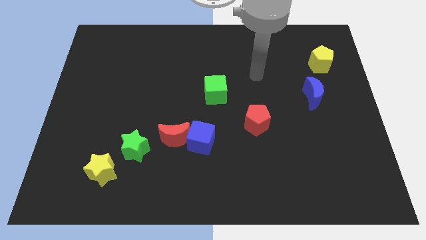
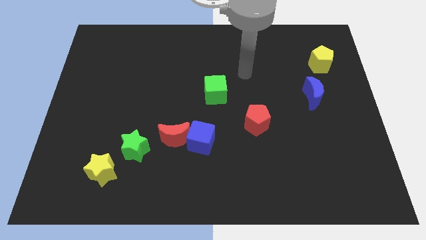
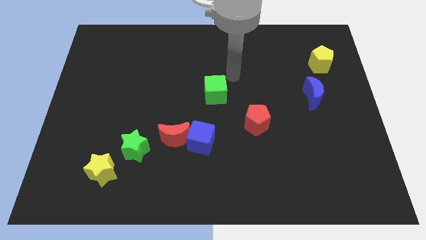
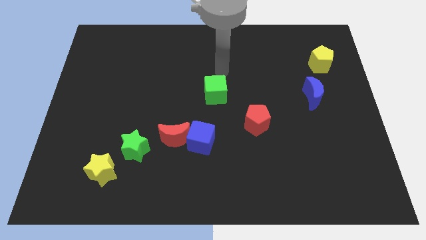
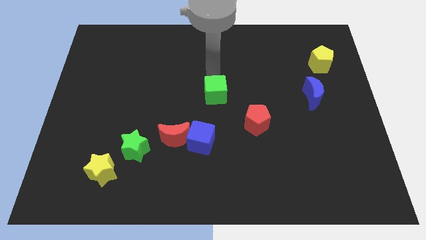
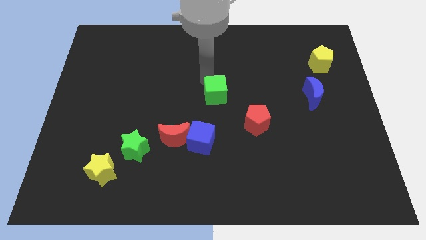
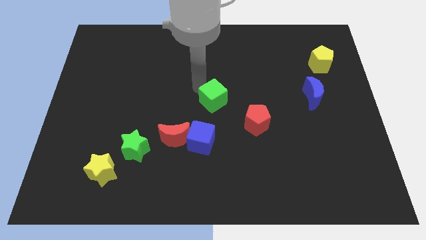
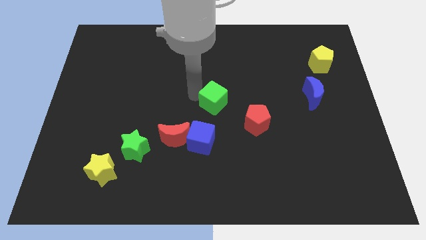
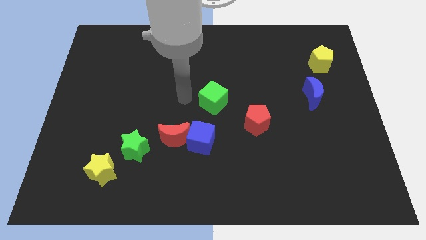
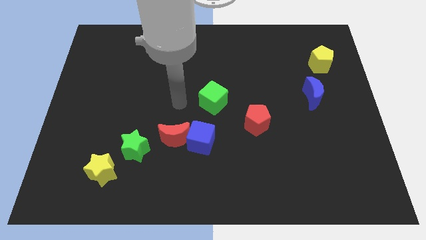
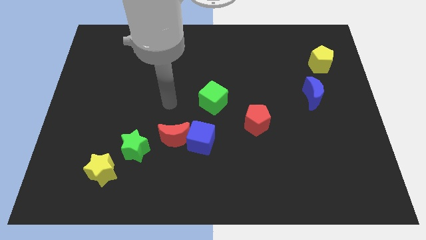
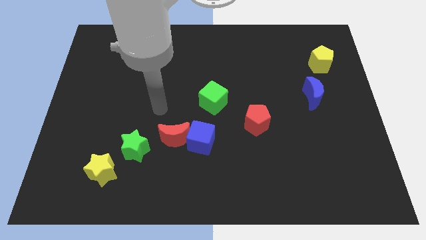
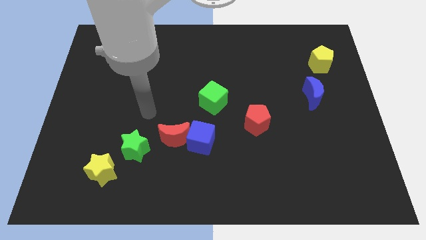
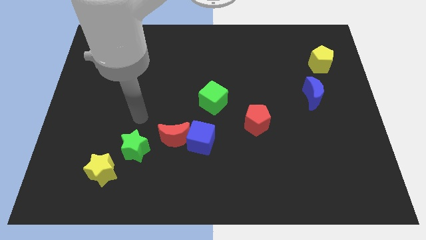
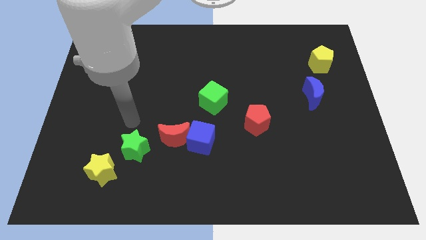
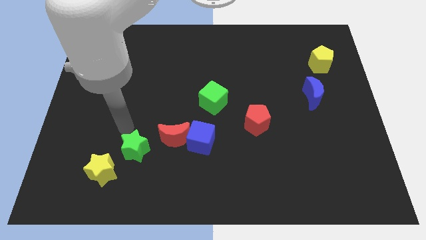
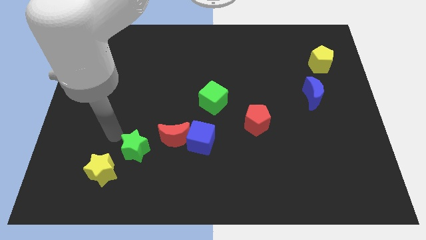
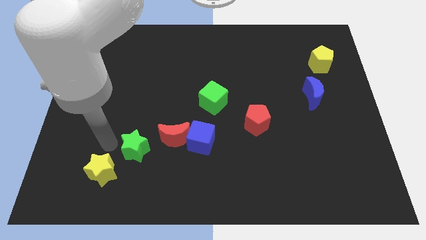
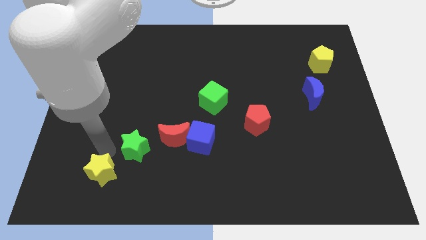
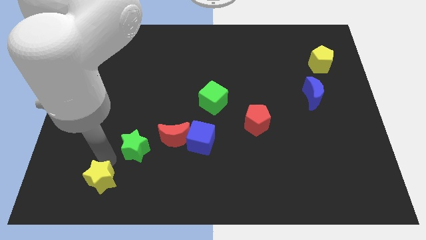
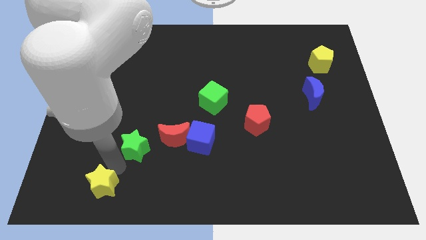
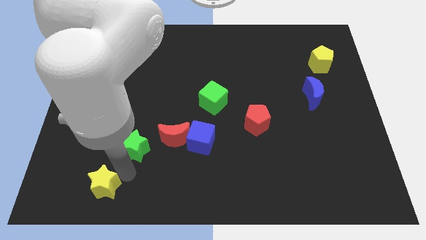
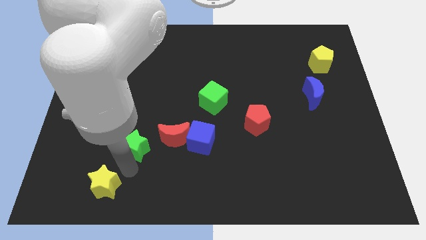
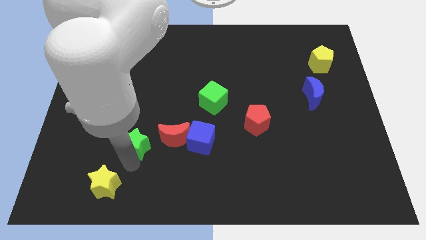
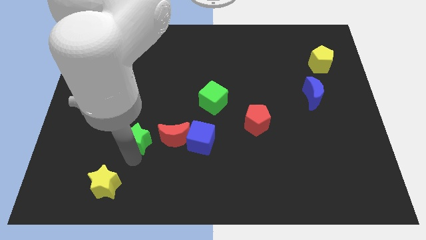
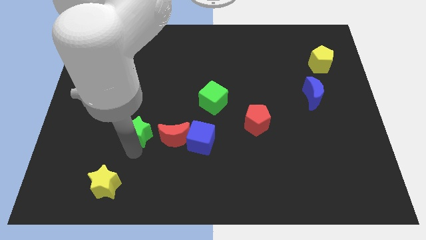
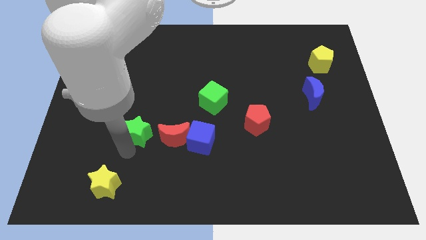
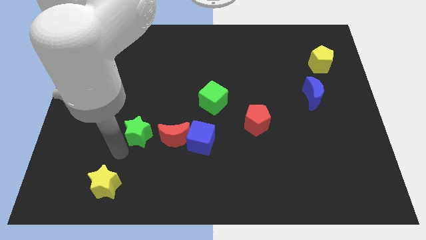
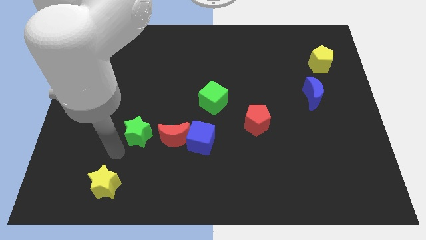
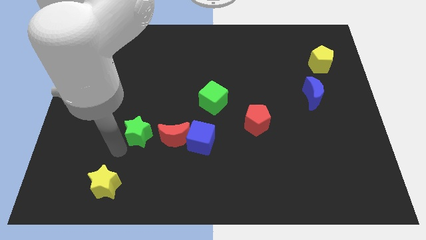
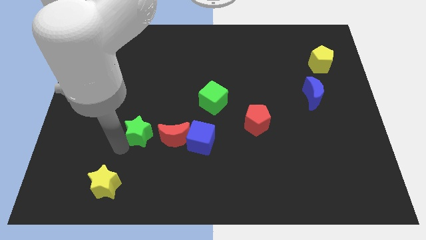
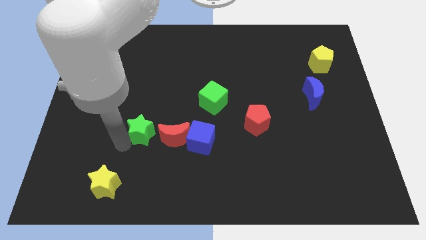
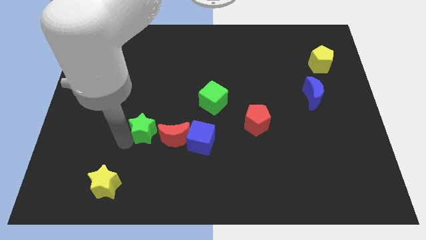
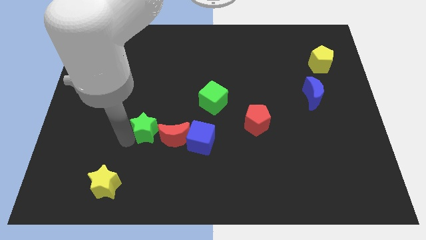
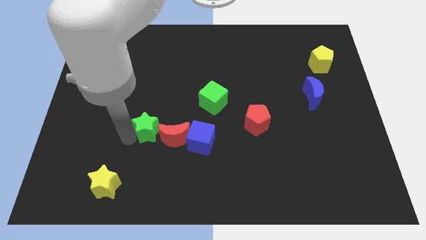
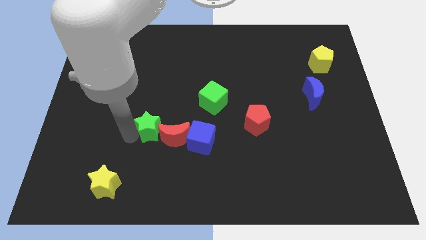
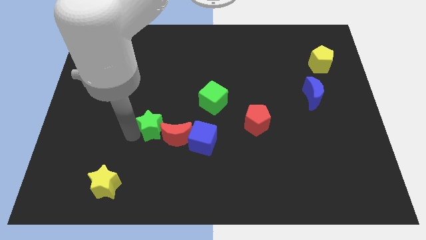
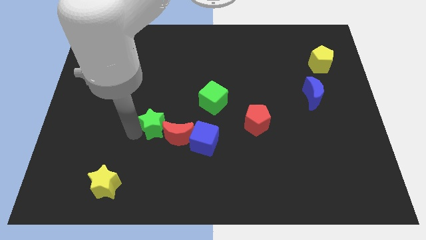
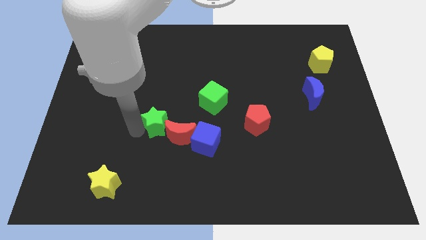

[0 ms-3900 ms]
push the green star upwards and then right a bit

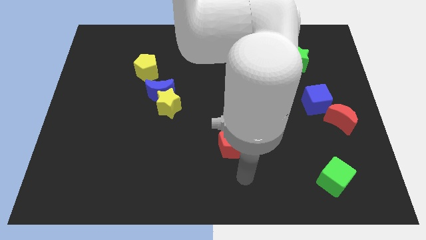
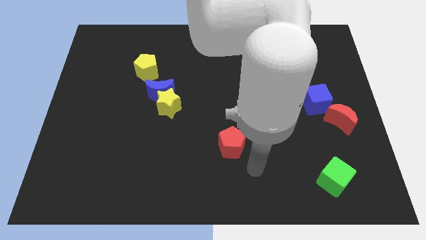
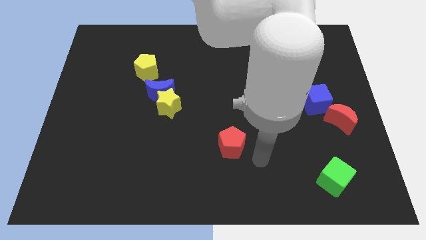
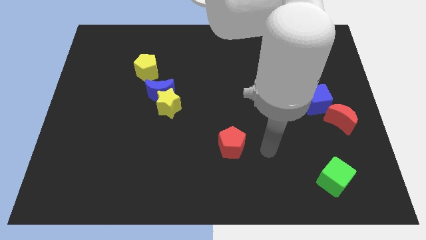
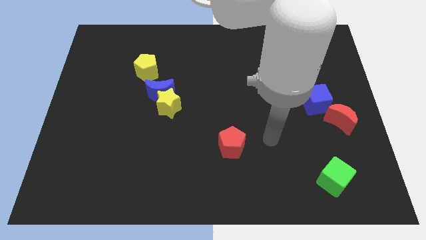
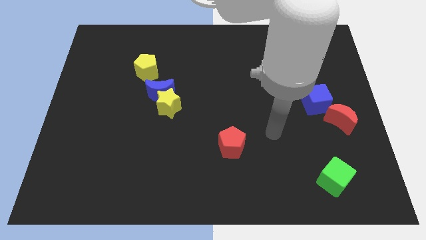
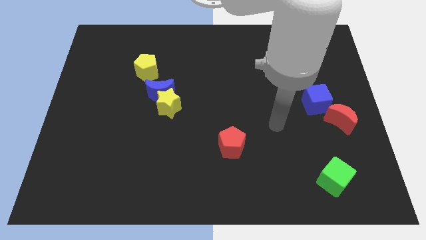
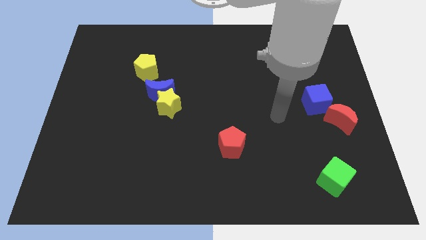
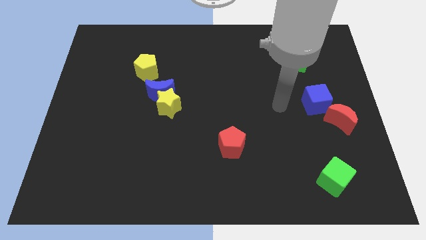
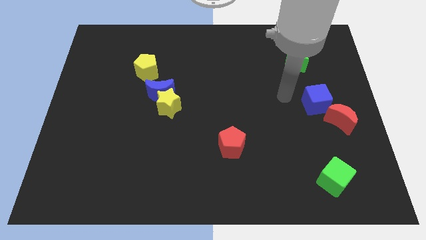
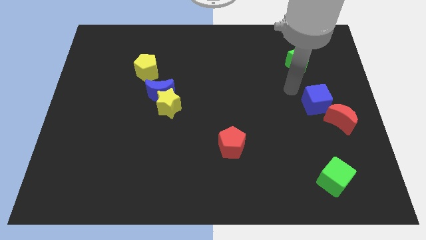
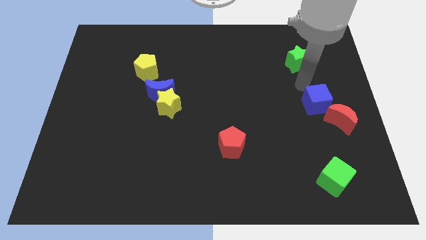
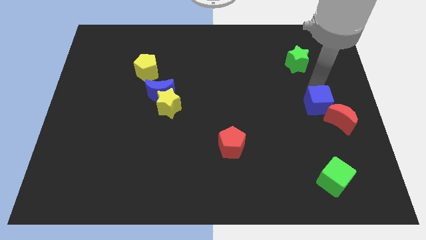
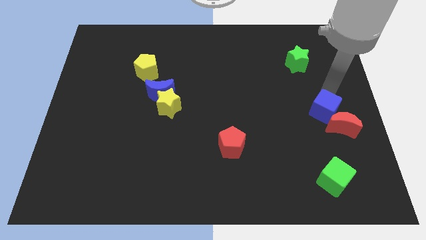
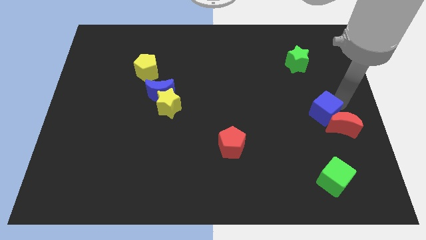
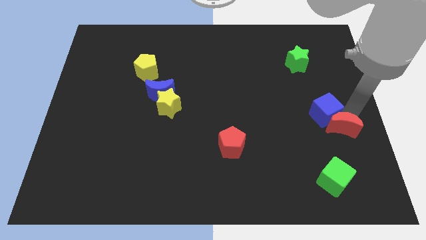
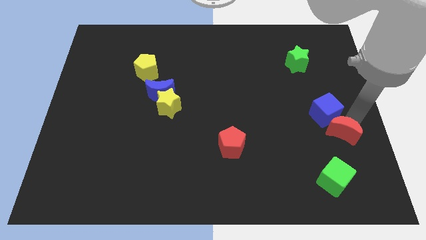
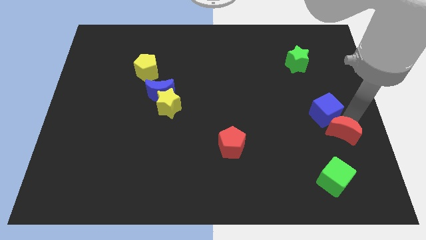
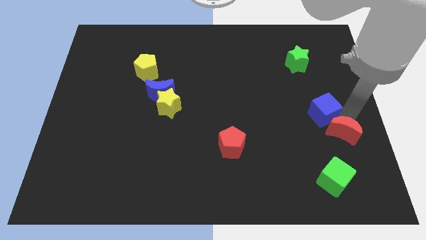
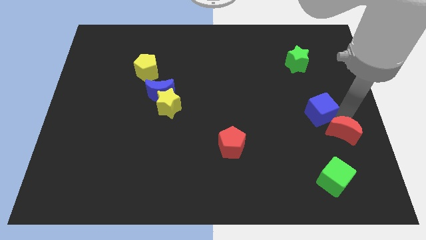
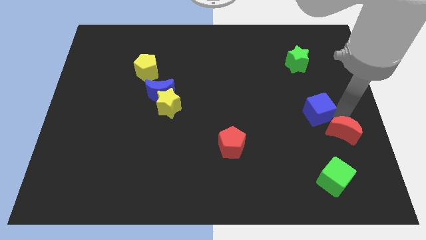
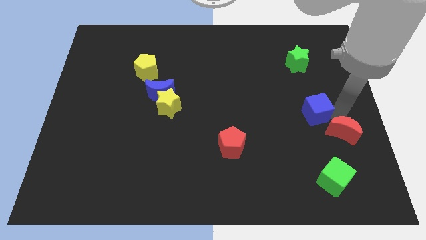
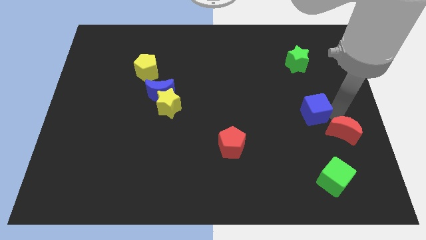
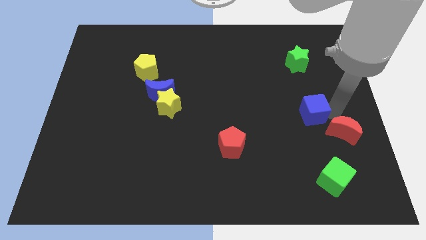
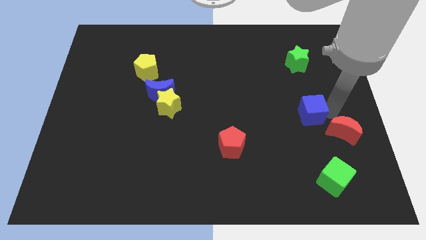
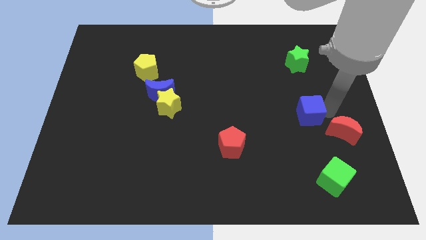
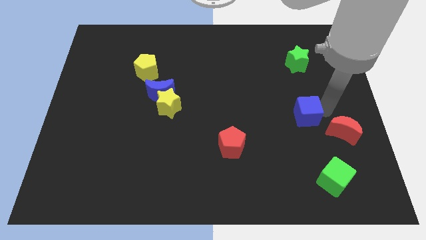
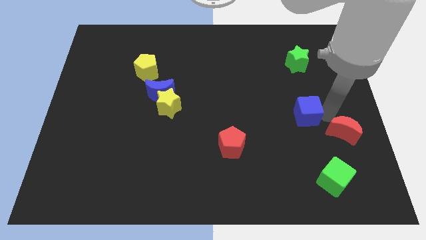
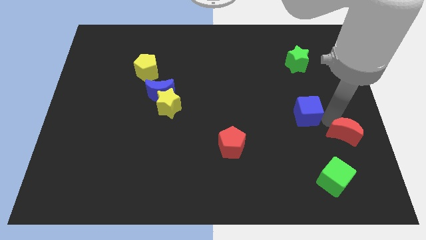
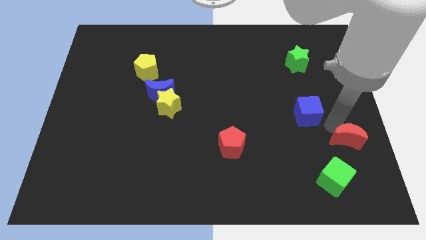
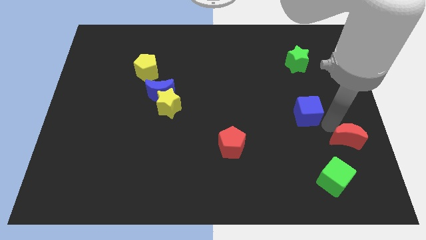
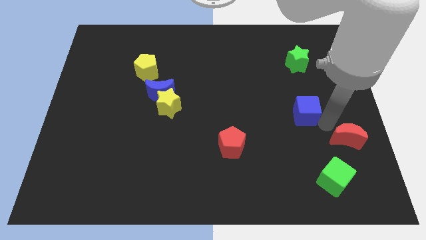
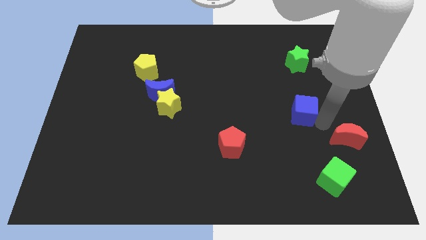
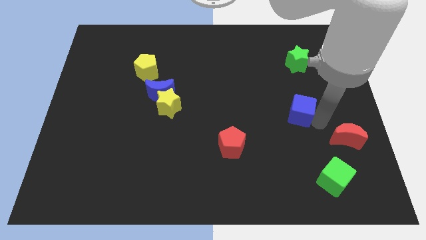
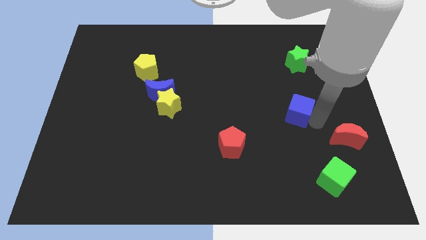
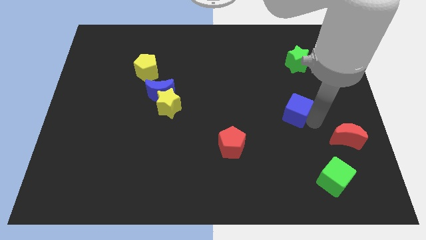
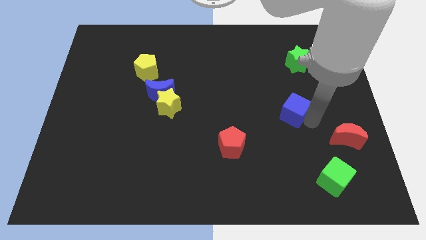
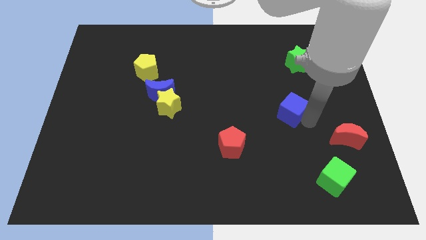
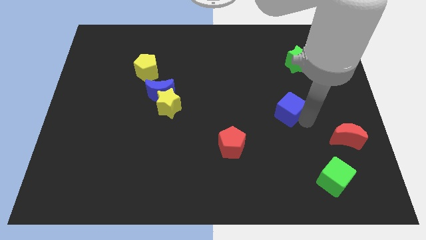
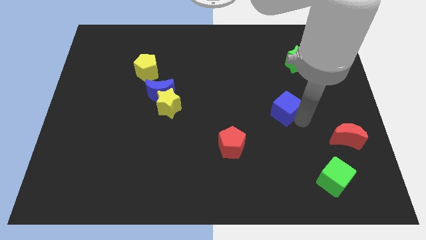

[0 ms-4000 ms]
slightly push the blue cube left

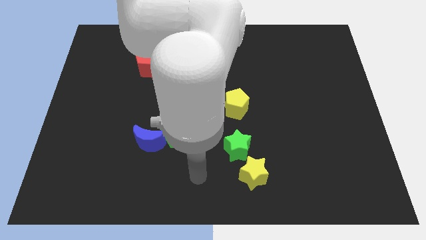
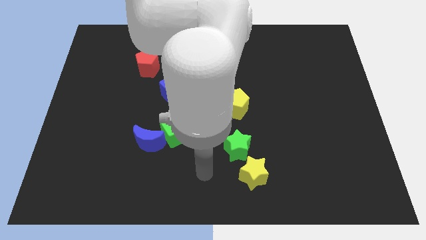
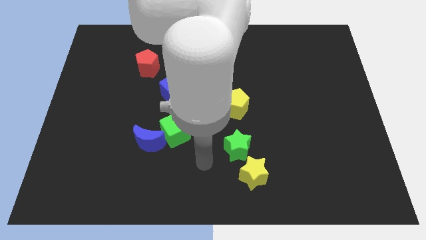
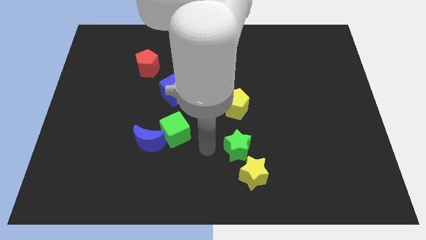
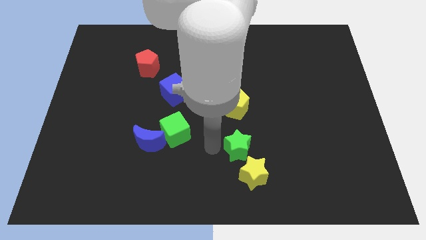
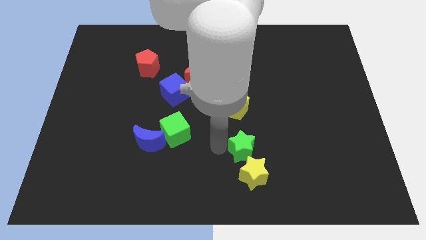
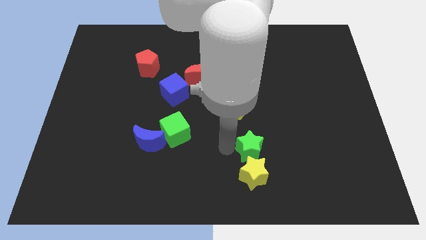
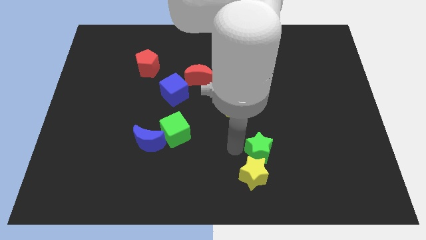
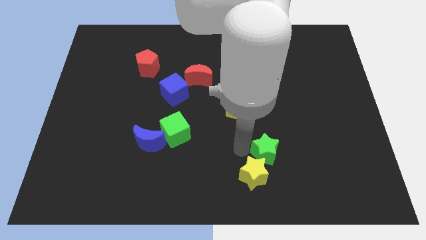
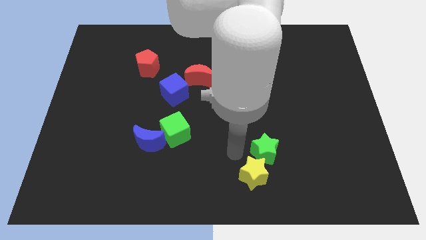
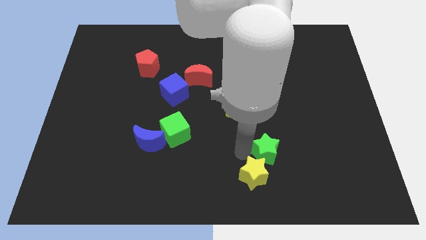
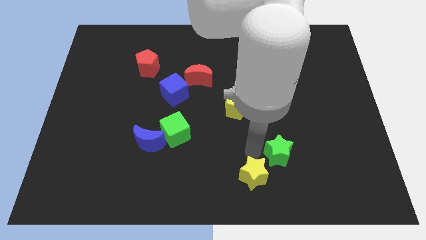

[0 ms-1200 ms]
push the green star right a little bit
